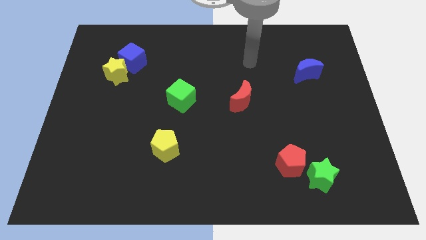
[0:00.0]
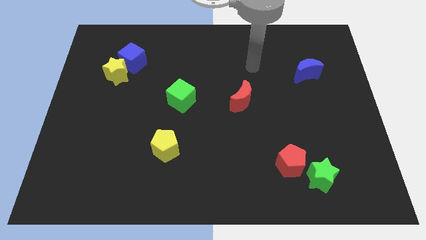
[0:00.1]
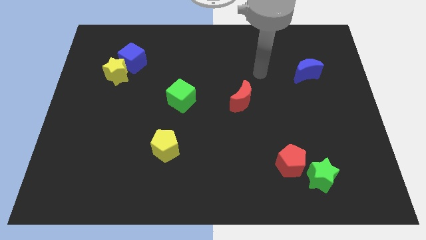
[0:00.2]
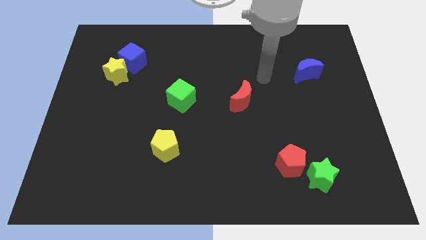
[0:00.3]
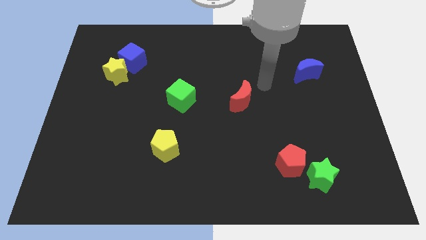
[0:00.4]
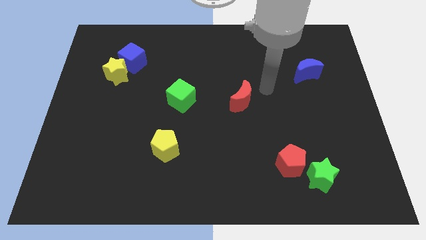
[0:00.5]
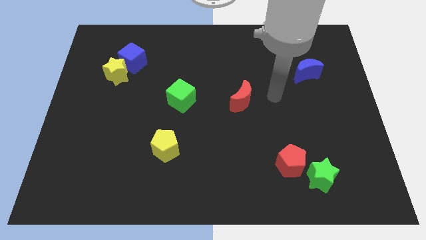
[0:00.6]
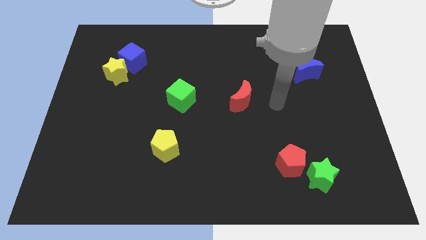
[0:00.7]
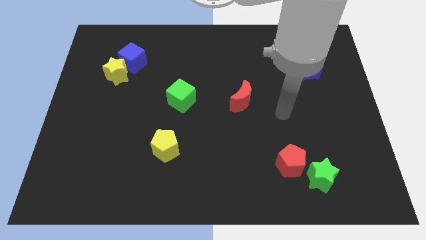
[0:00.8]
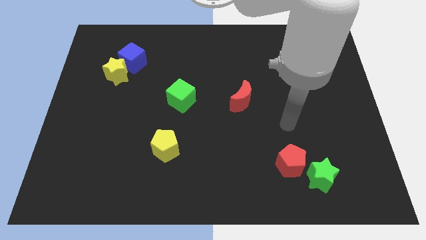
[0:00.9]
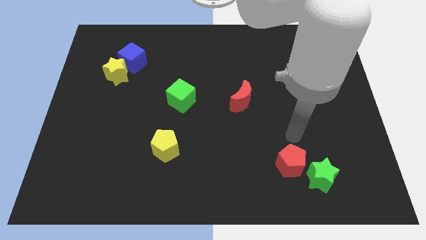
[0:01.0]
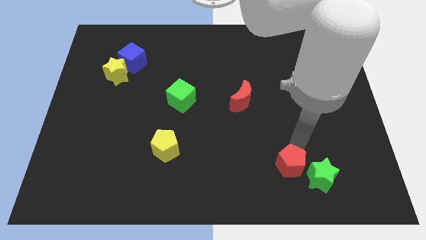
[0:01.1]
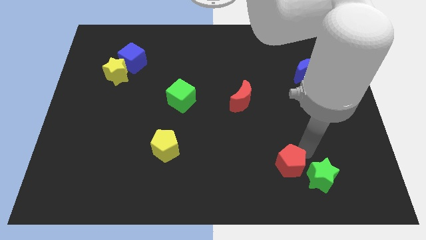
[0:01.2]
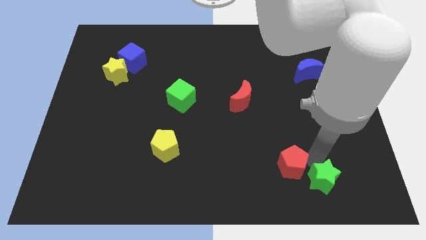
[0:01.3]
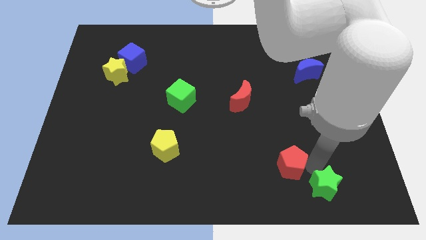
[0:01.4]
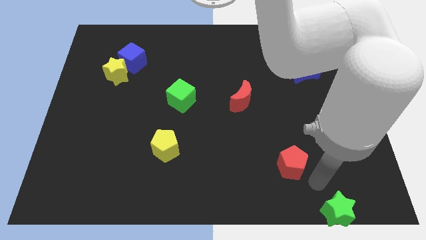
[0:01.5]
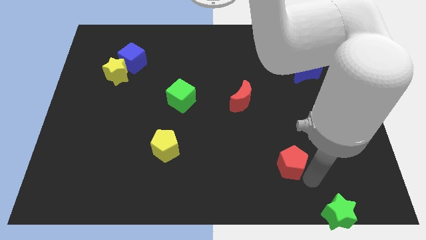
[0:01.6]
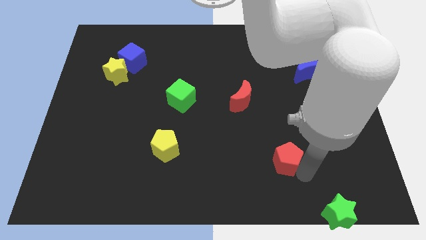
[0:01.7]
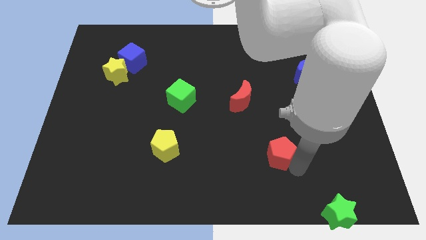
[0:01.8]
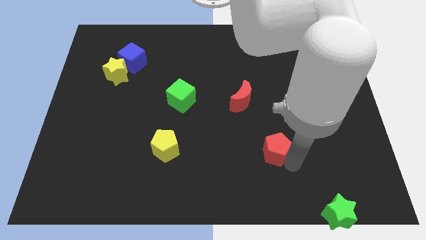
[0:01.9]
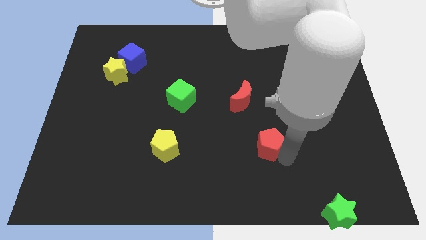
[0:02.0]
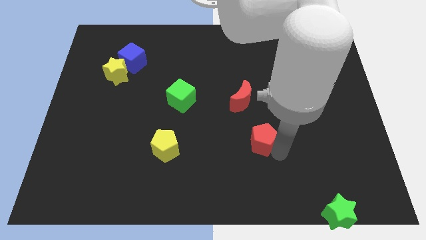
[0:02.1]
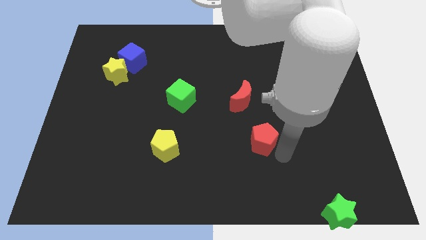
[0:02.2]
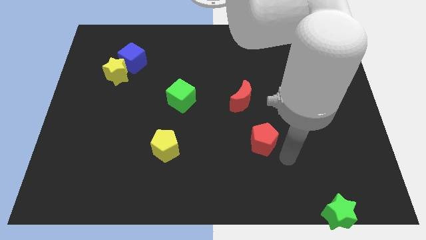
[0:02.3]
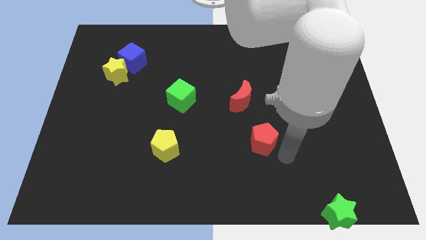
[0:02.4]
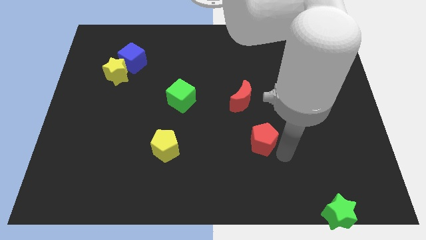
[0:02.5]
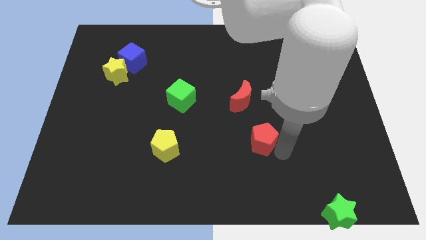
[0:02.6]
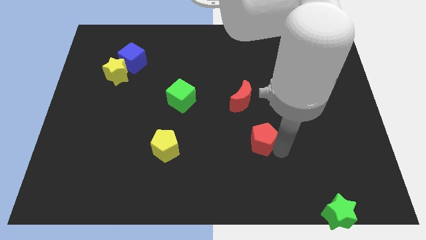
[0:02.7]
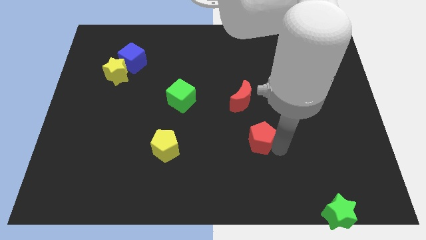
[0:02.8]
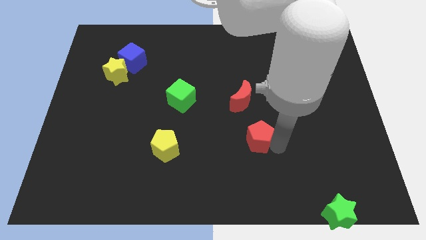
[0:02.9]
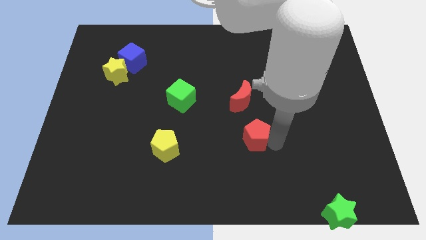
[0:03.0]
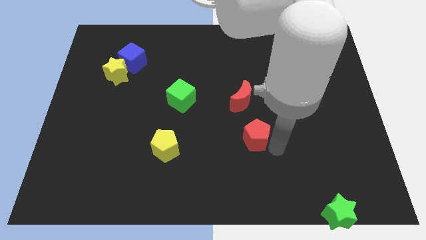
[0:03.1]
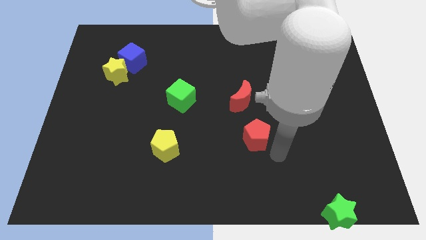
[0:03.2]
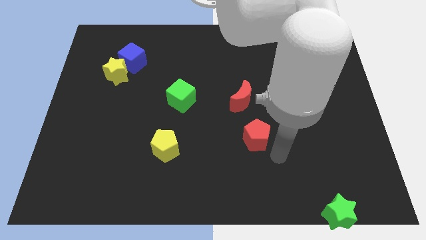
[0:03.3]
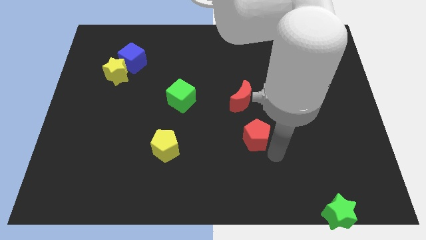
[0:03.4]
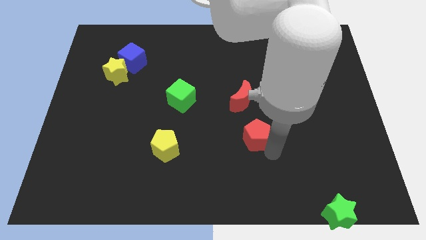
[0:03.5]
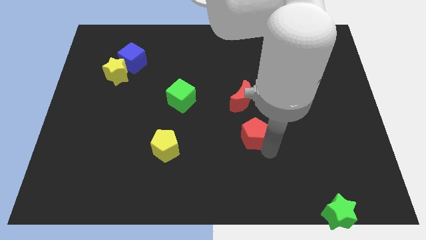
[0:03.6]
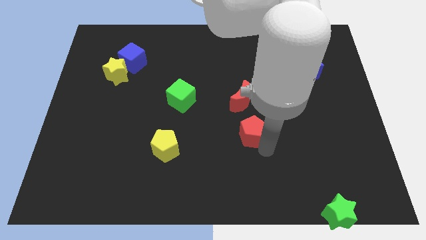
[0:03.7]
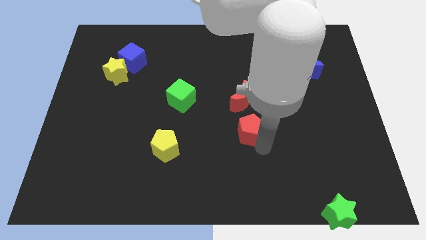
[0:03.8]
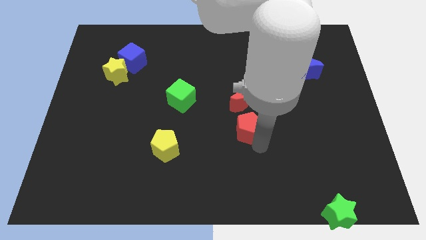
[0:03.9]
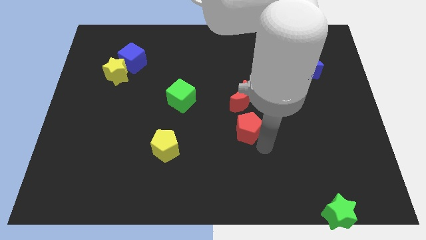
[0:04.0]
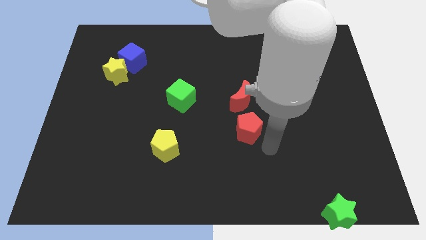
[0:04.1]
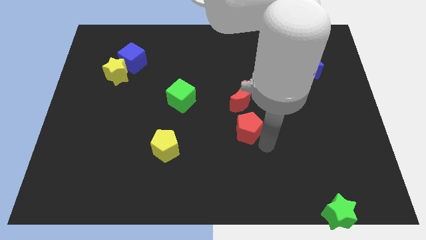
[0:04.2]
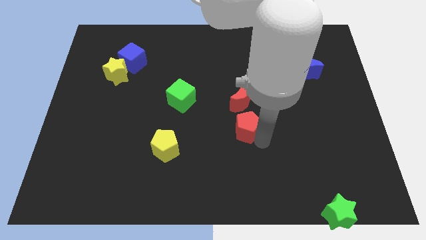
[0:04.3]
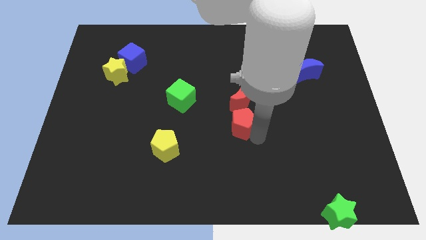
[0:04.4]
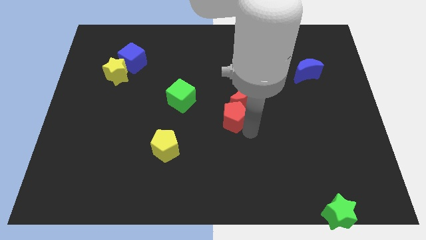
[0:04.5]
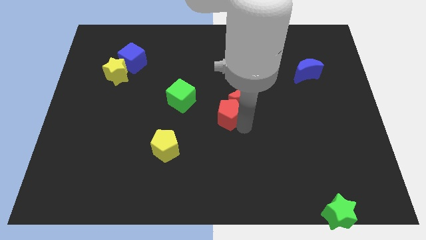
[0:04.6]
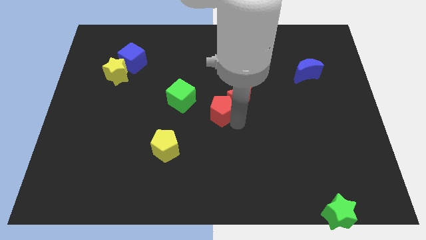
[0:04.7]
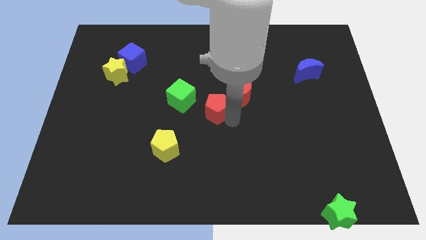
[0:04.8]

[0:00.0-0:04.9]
slide the red pentagon up and then to the left

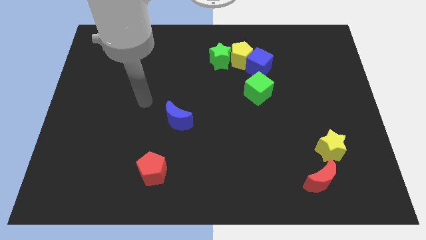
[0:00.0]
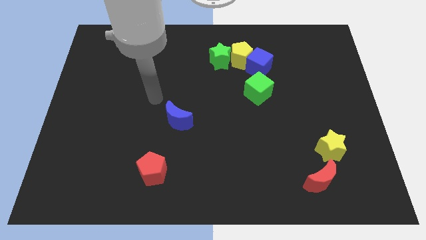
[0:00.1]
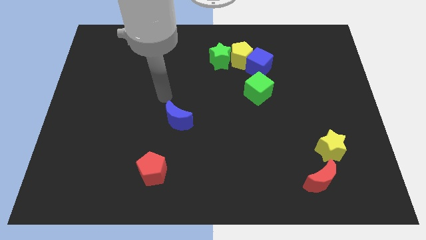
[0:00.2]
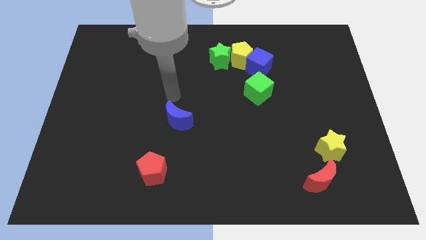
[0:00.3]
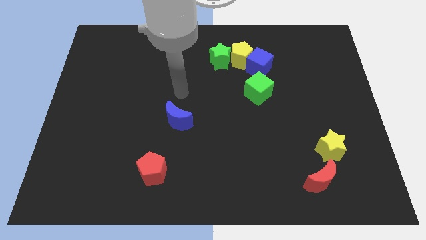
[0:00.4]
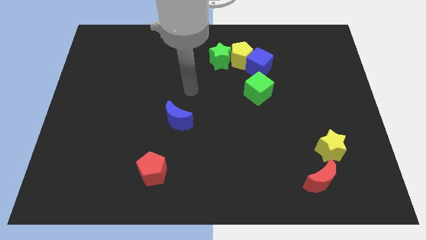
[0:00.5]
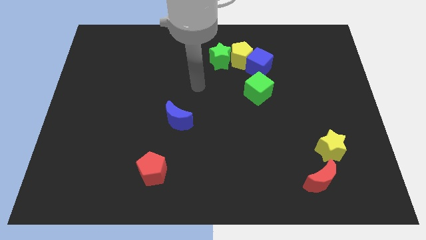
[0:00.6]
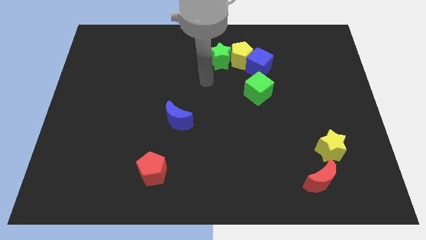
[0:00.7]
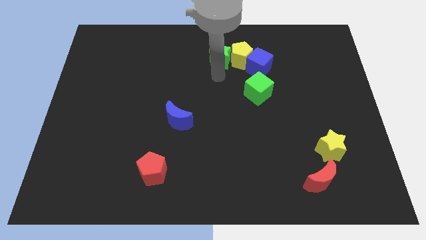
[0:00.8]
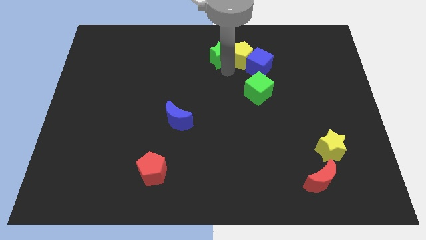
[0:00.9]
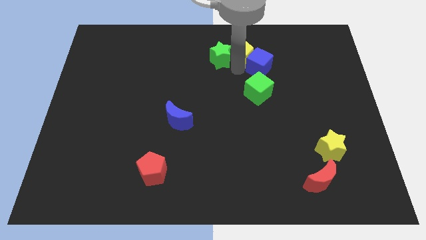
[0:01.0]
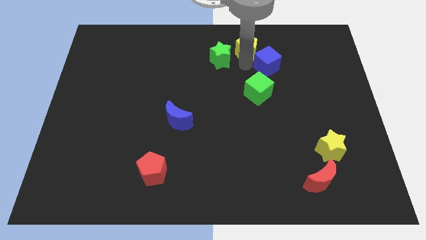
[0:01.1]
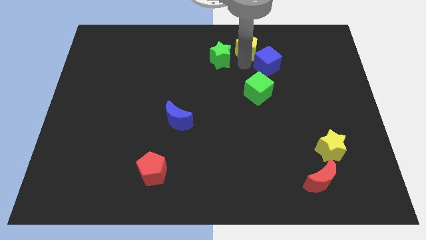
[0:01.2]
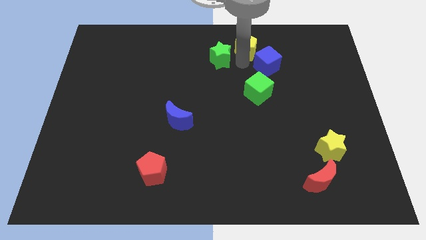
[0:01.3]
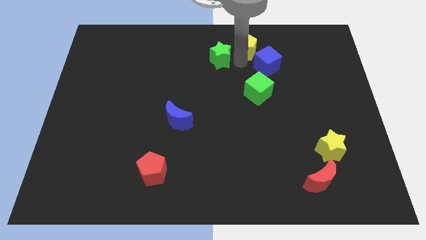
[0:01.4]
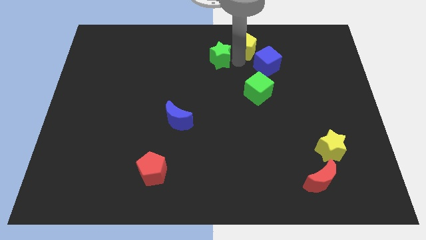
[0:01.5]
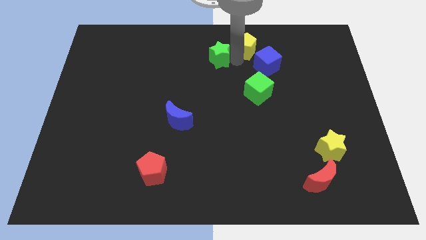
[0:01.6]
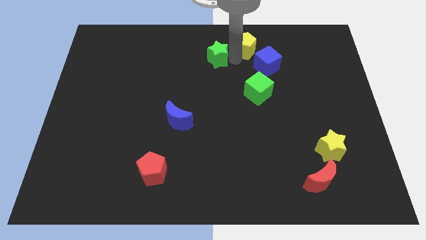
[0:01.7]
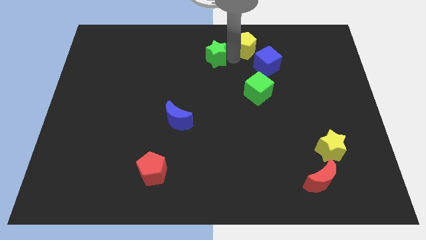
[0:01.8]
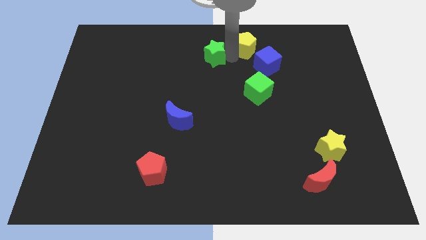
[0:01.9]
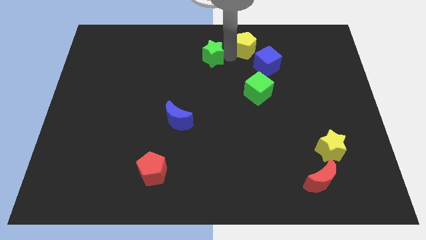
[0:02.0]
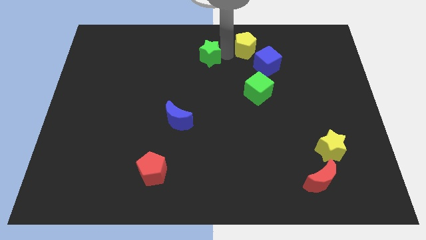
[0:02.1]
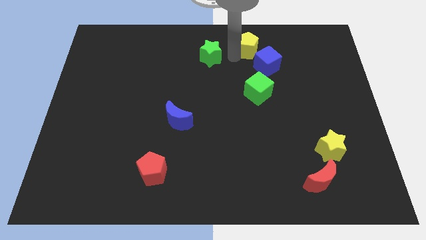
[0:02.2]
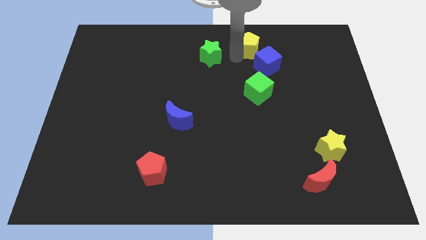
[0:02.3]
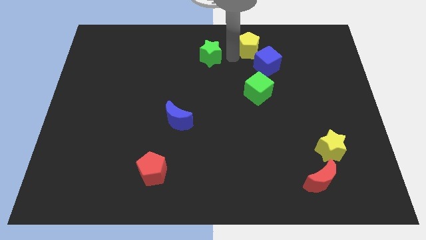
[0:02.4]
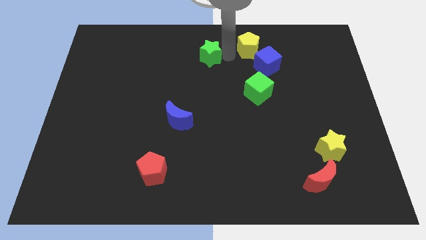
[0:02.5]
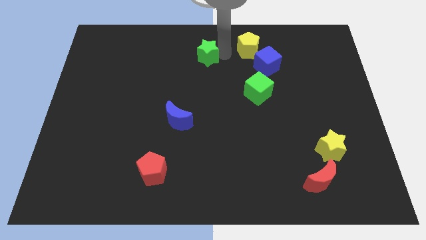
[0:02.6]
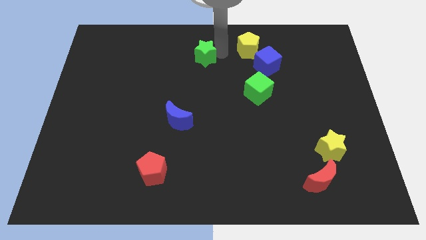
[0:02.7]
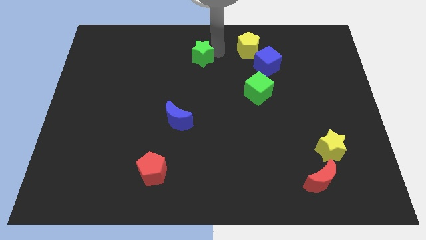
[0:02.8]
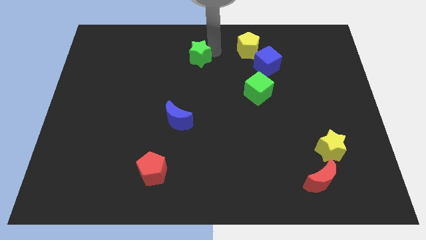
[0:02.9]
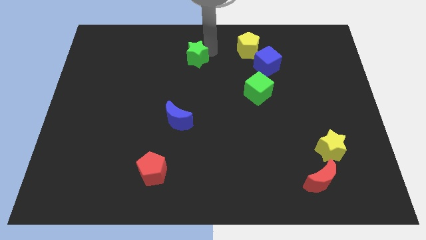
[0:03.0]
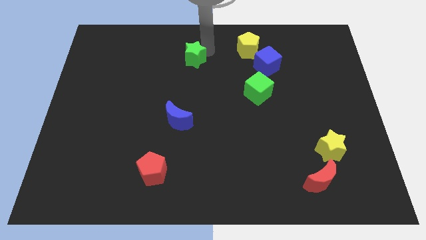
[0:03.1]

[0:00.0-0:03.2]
slightly move the green star left

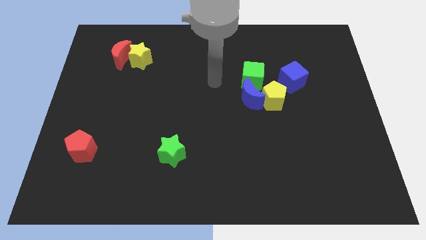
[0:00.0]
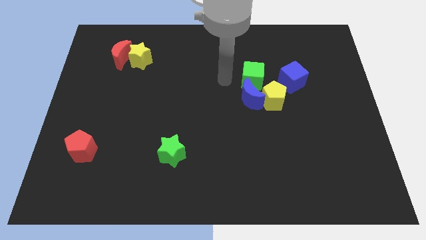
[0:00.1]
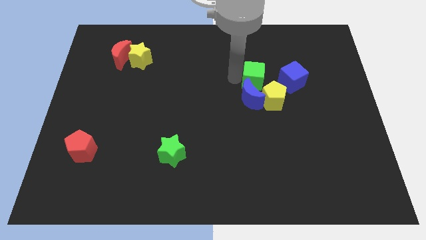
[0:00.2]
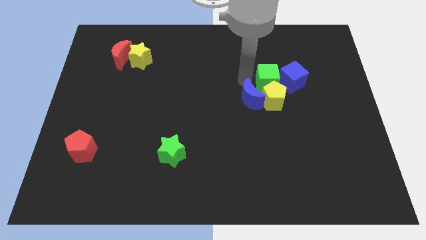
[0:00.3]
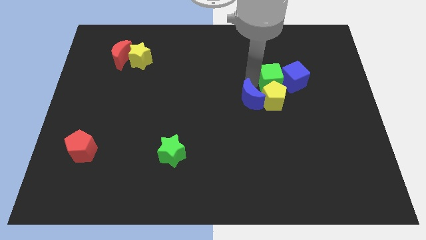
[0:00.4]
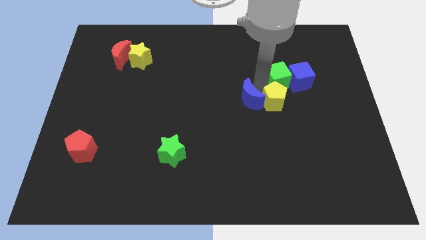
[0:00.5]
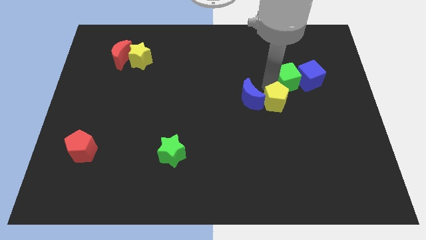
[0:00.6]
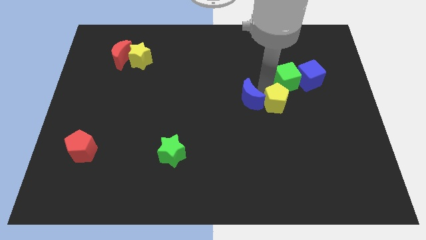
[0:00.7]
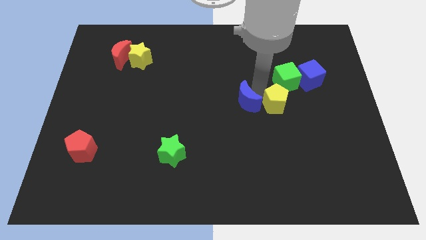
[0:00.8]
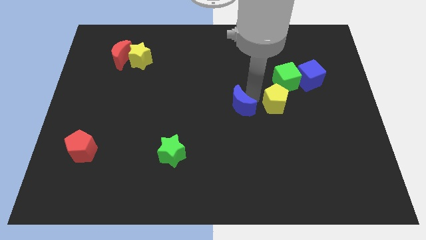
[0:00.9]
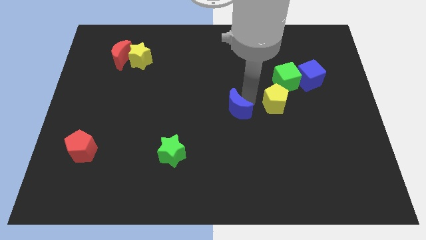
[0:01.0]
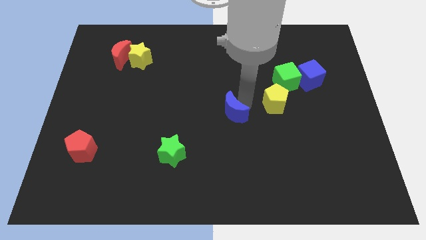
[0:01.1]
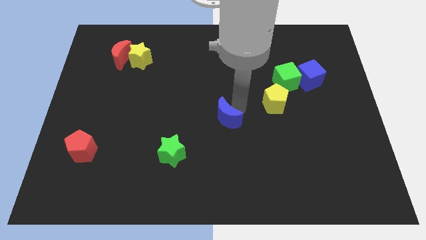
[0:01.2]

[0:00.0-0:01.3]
slide the blue moon diagonally down and to the left a bit
